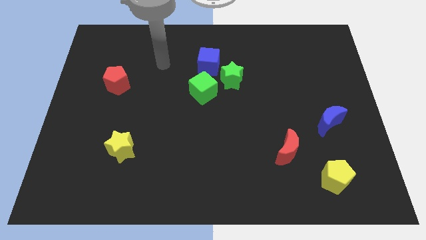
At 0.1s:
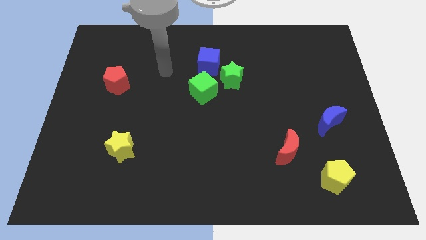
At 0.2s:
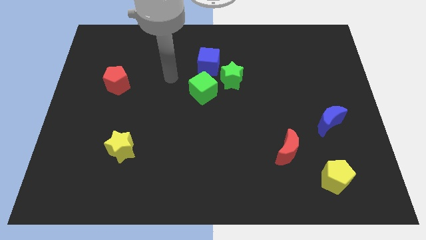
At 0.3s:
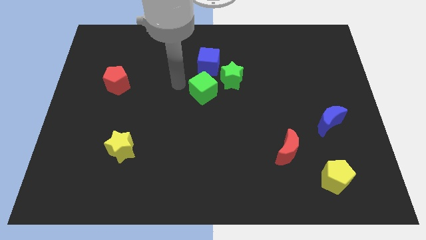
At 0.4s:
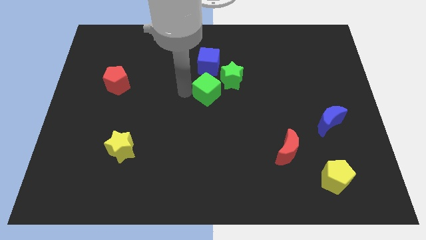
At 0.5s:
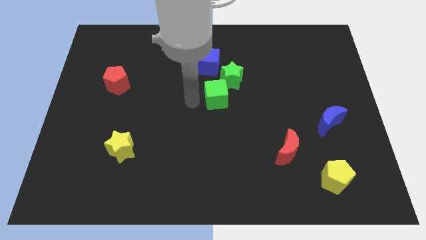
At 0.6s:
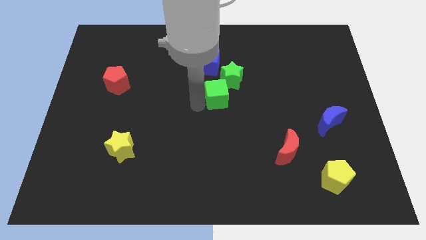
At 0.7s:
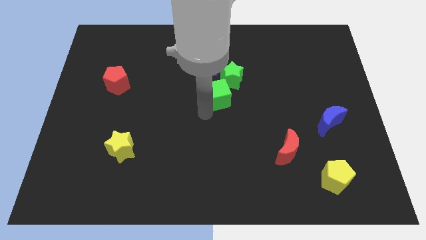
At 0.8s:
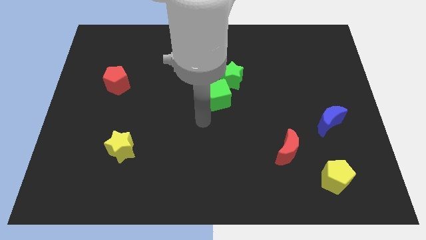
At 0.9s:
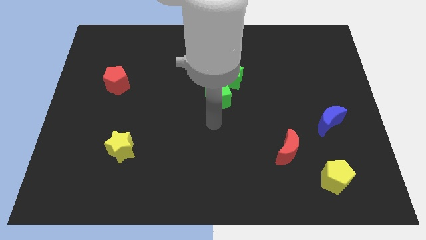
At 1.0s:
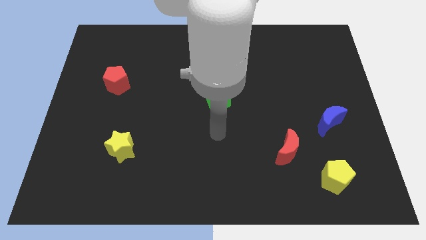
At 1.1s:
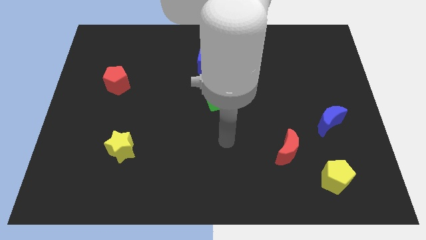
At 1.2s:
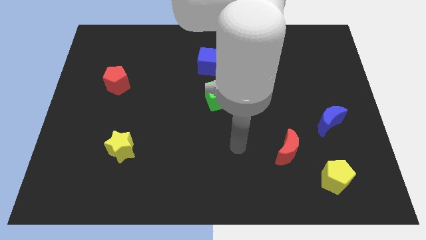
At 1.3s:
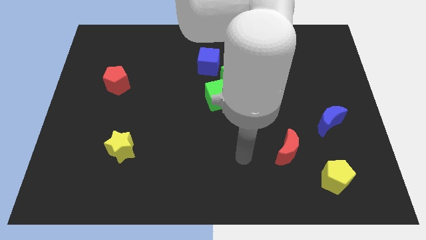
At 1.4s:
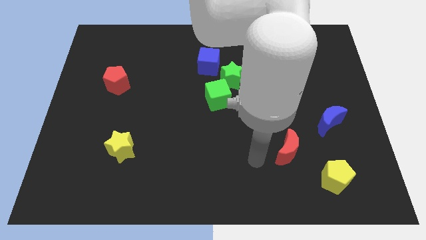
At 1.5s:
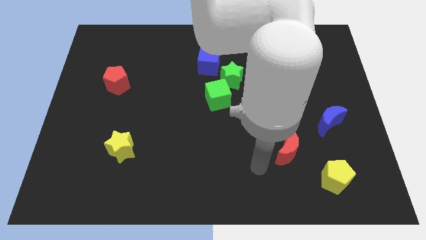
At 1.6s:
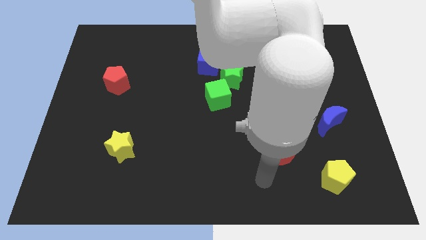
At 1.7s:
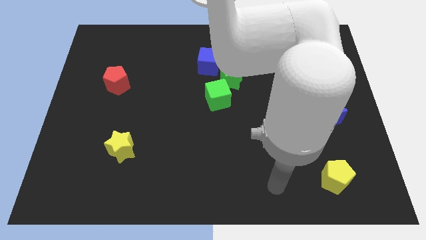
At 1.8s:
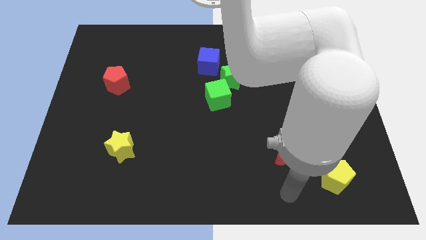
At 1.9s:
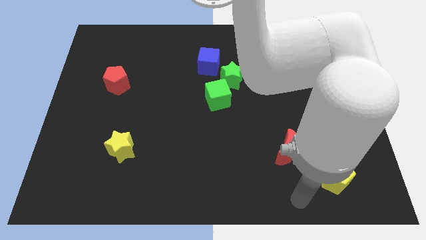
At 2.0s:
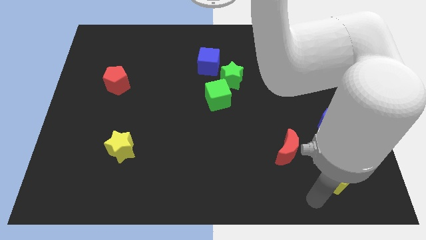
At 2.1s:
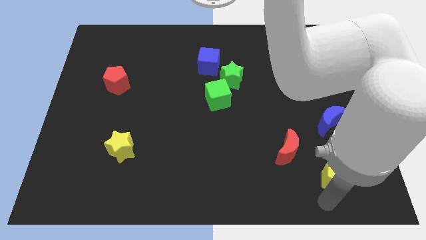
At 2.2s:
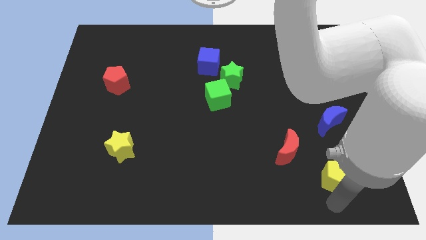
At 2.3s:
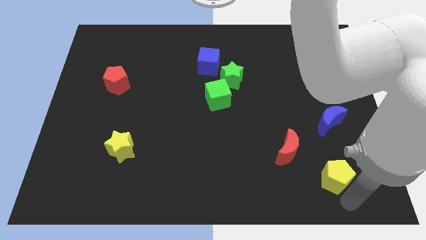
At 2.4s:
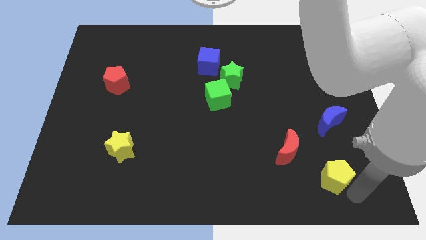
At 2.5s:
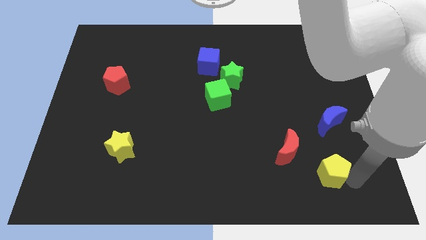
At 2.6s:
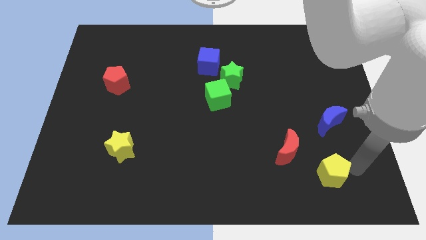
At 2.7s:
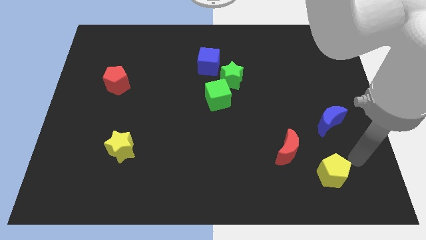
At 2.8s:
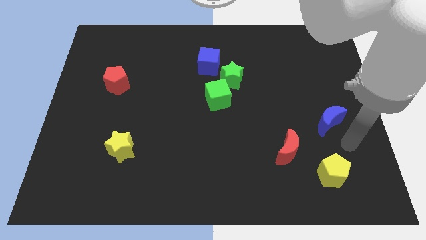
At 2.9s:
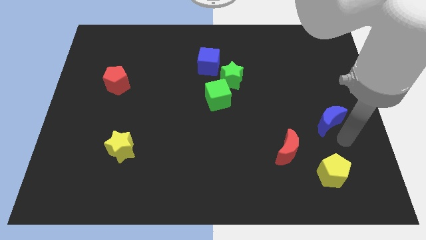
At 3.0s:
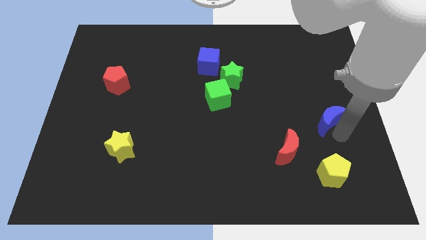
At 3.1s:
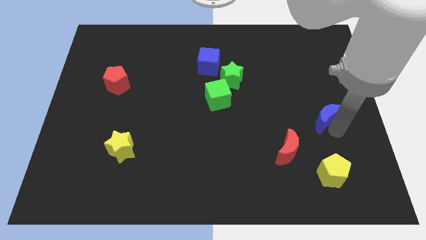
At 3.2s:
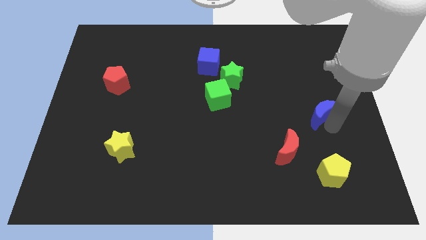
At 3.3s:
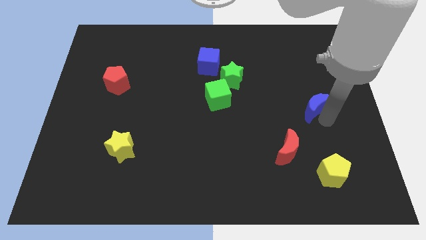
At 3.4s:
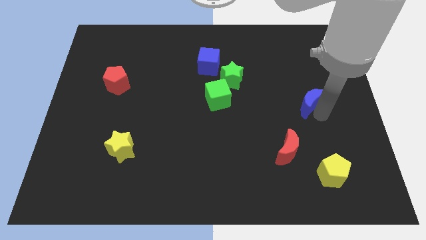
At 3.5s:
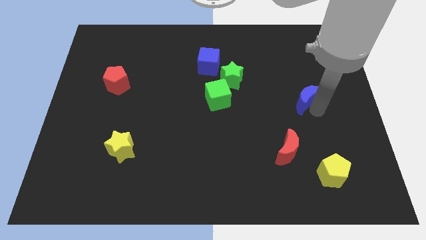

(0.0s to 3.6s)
slightly slide the blue moon up and left

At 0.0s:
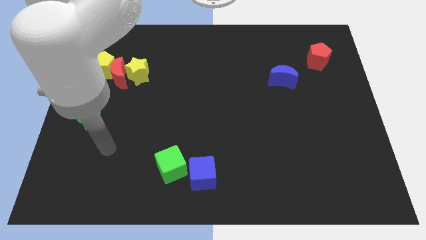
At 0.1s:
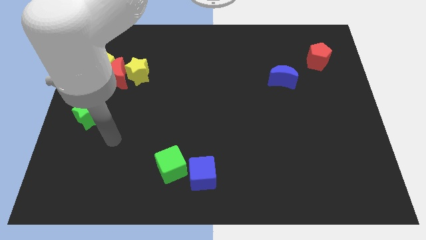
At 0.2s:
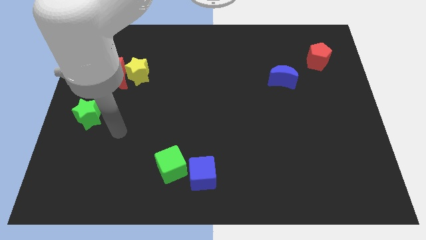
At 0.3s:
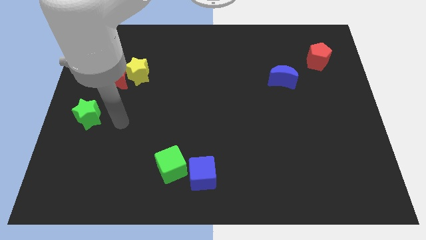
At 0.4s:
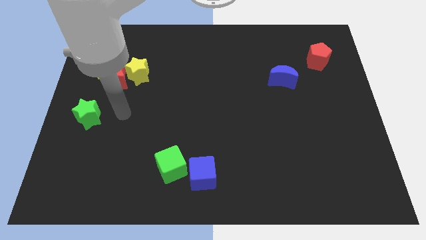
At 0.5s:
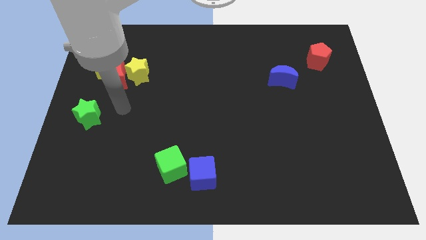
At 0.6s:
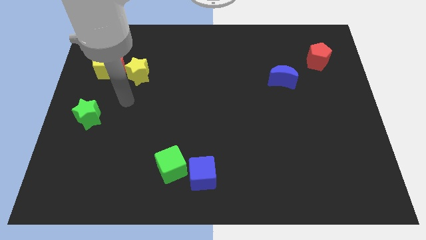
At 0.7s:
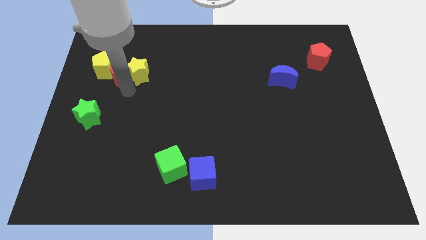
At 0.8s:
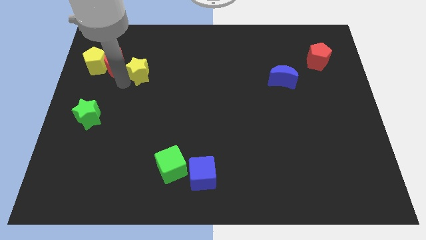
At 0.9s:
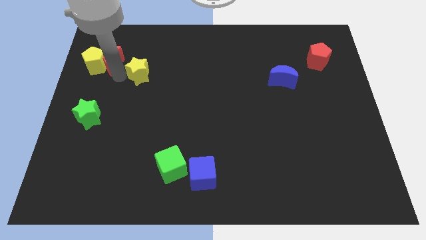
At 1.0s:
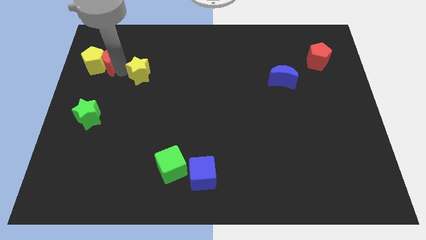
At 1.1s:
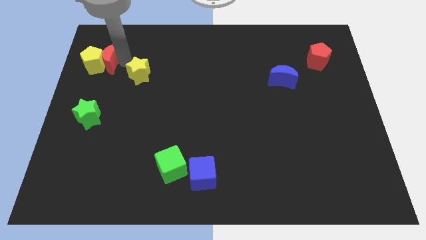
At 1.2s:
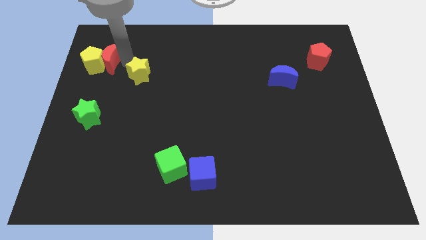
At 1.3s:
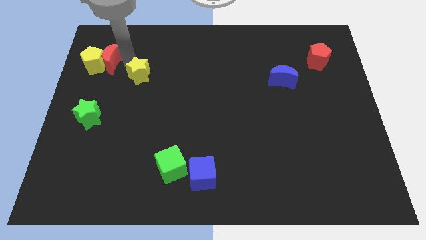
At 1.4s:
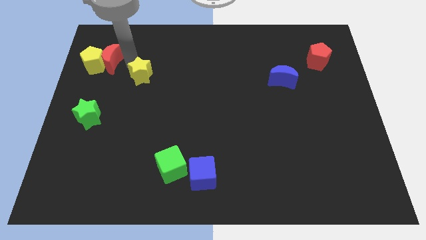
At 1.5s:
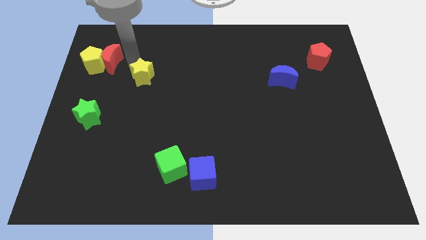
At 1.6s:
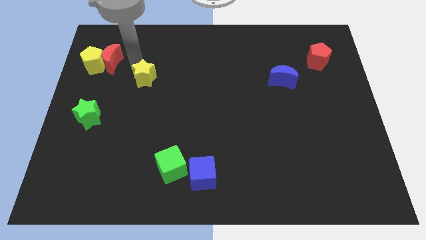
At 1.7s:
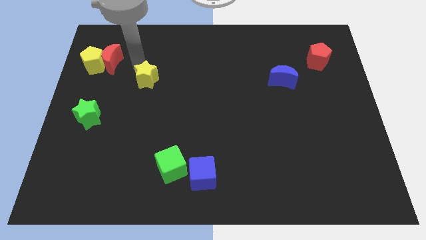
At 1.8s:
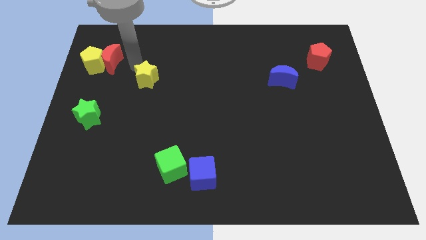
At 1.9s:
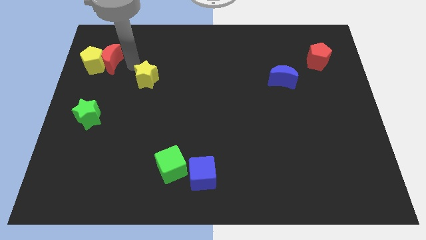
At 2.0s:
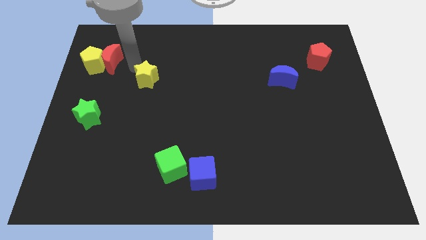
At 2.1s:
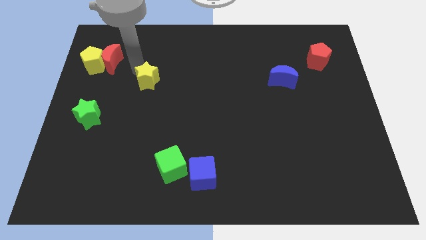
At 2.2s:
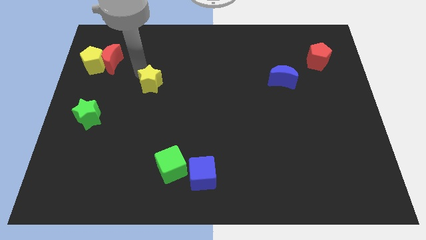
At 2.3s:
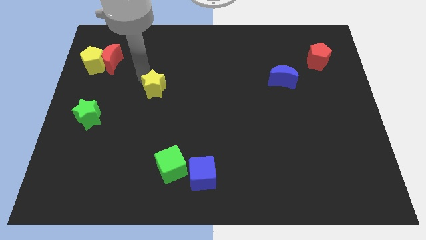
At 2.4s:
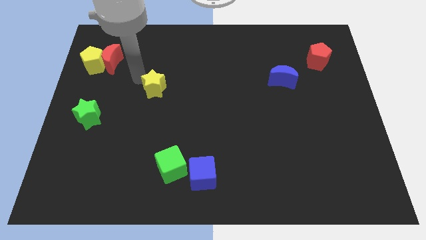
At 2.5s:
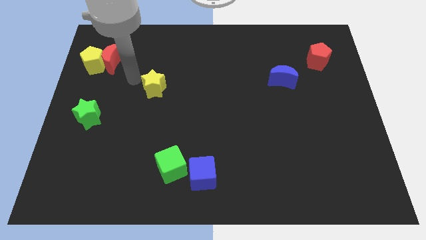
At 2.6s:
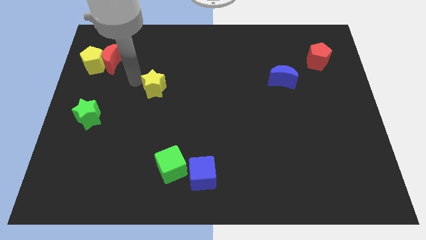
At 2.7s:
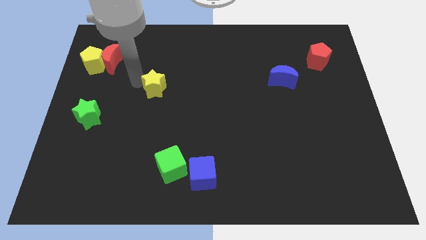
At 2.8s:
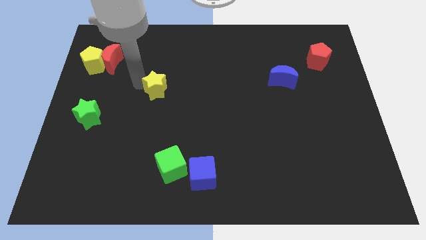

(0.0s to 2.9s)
slightly move the yellow star down and then right

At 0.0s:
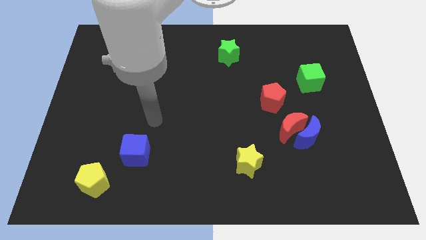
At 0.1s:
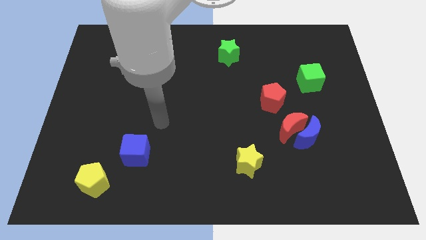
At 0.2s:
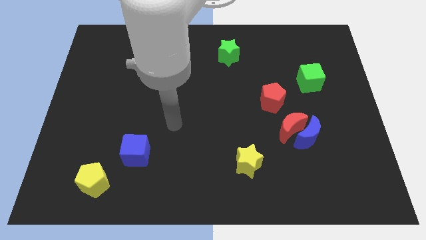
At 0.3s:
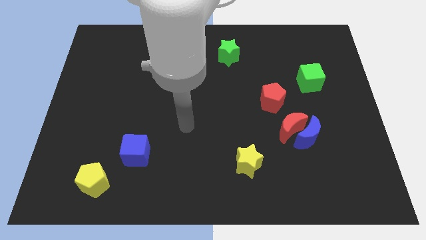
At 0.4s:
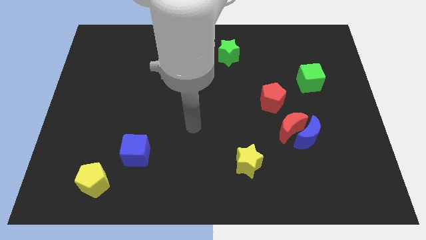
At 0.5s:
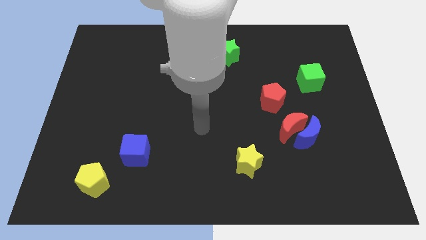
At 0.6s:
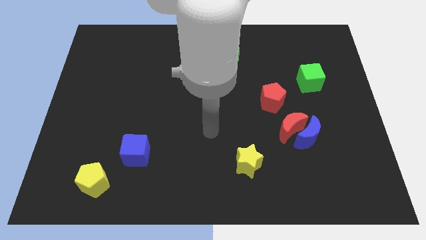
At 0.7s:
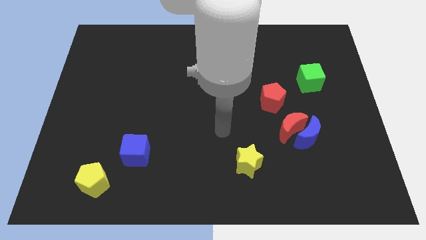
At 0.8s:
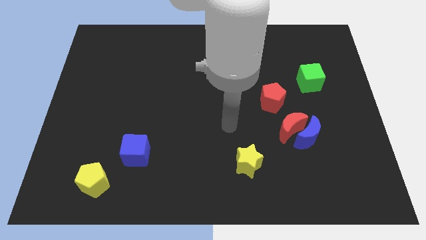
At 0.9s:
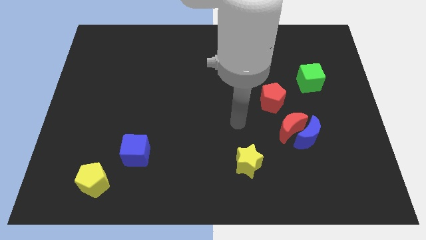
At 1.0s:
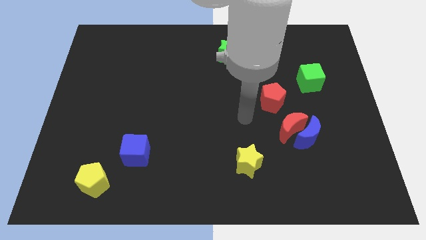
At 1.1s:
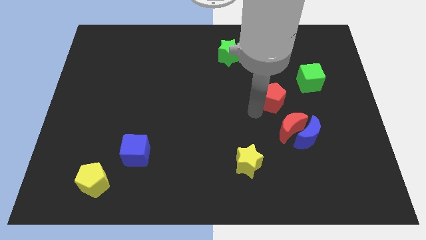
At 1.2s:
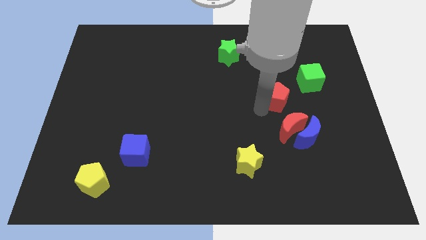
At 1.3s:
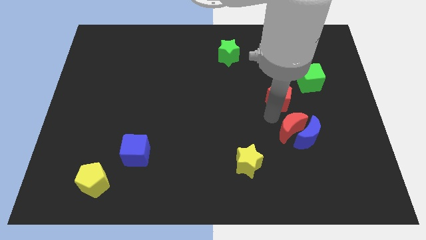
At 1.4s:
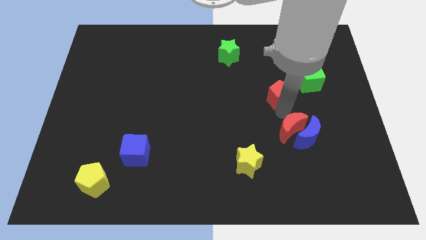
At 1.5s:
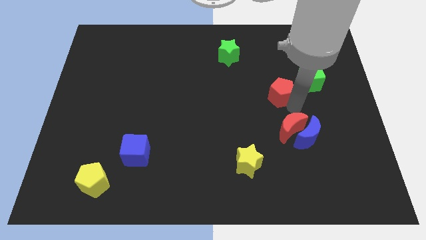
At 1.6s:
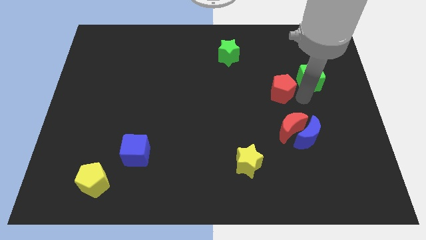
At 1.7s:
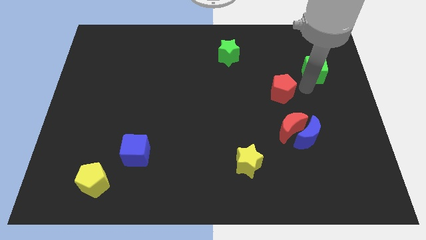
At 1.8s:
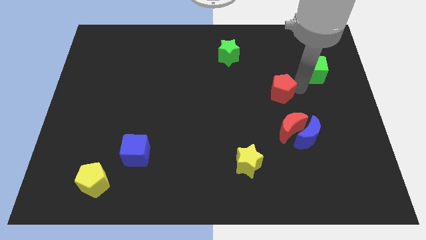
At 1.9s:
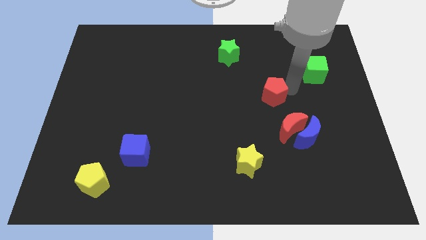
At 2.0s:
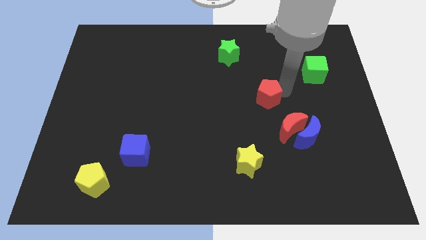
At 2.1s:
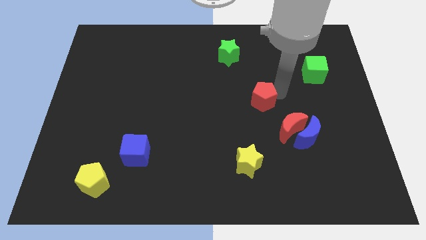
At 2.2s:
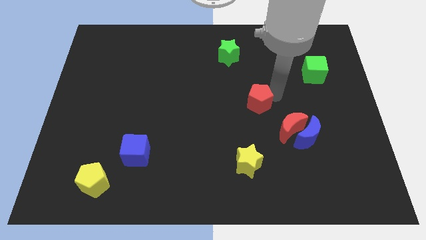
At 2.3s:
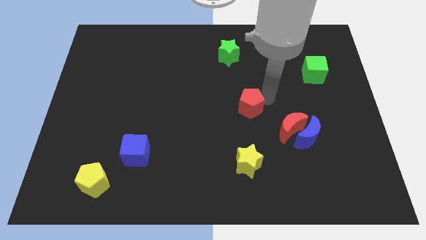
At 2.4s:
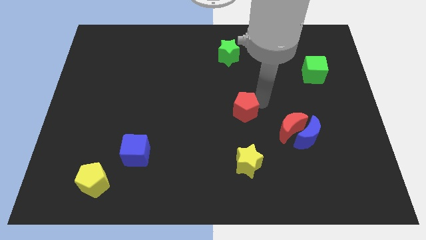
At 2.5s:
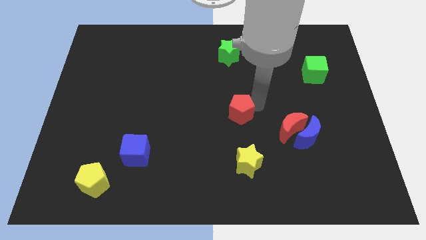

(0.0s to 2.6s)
slide the red pentagon somewhat left
